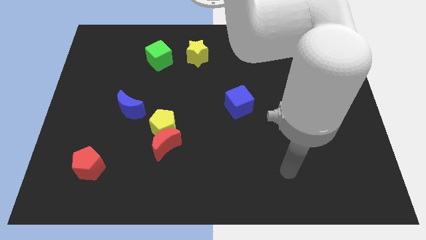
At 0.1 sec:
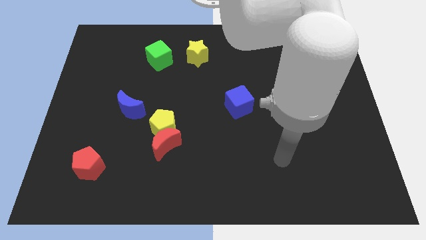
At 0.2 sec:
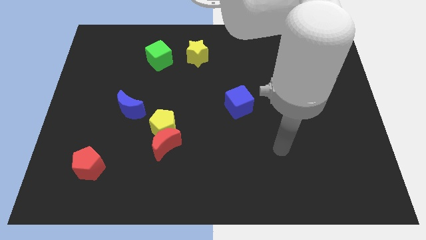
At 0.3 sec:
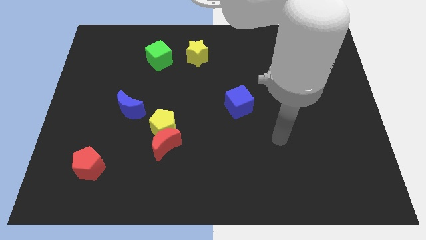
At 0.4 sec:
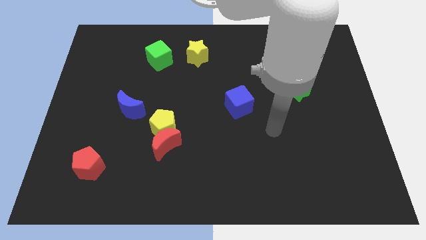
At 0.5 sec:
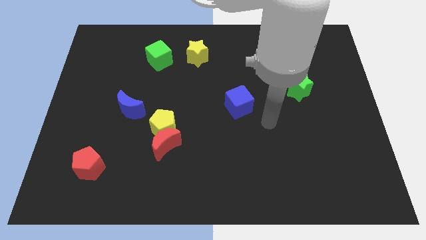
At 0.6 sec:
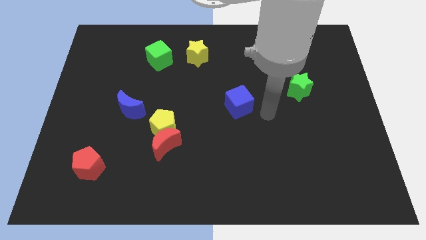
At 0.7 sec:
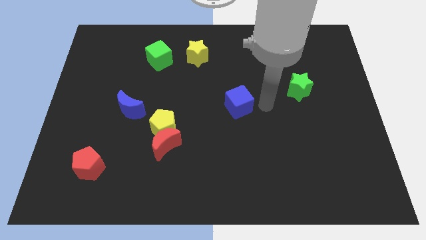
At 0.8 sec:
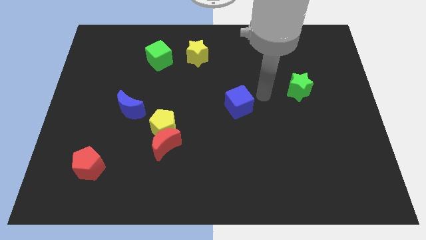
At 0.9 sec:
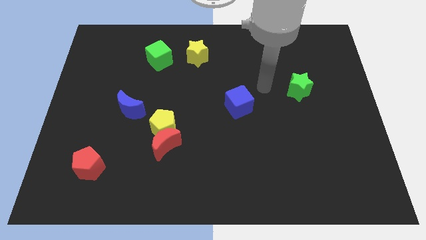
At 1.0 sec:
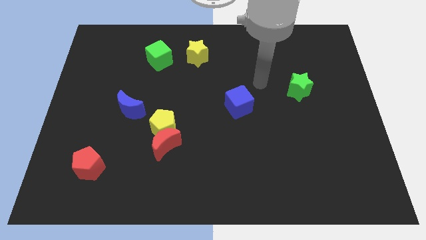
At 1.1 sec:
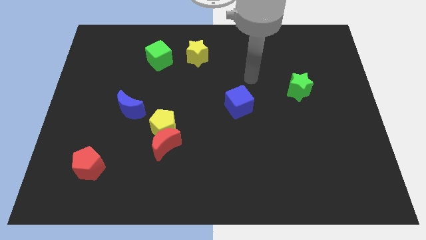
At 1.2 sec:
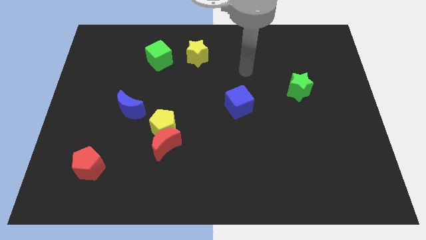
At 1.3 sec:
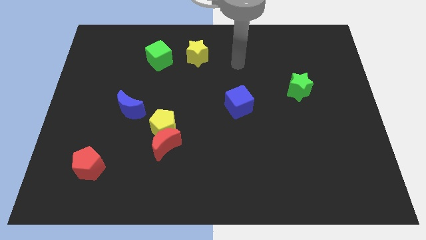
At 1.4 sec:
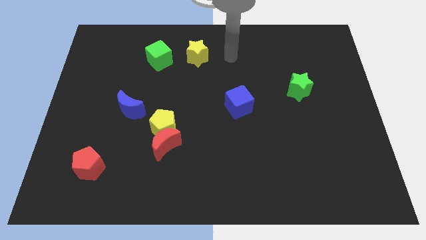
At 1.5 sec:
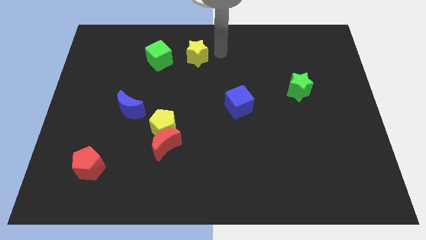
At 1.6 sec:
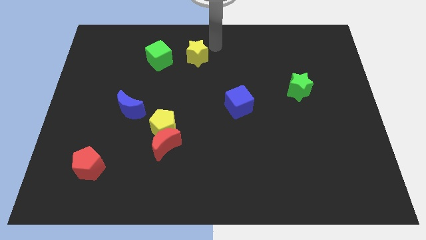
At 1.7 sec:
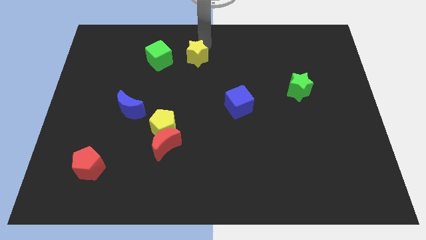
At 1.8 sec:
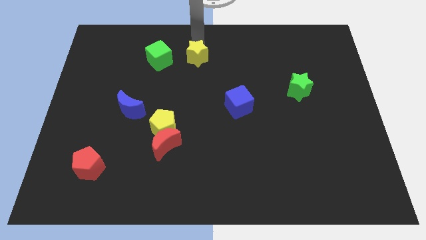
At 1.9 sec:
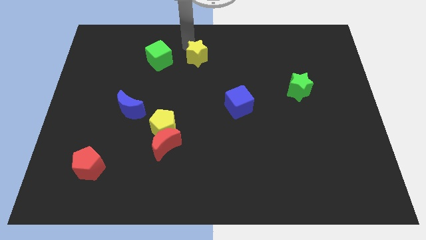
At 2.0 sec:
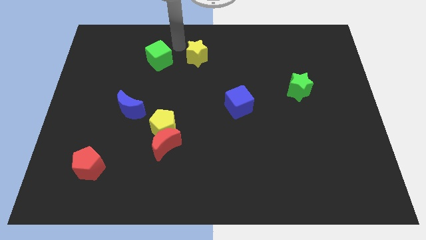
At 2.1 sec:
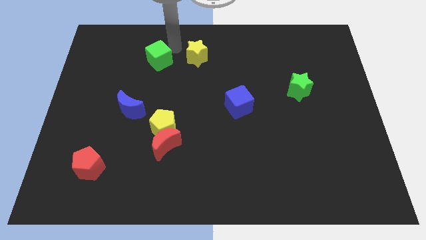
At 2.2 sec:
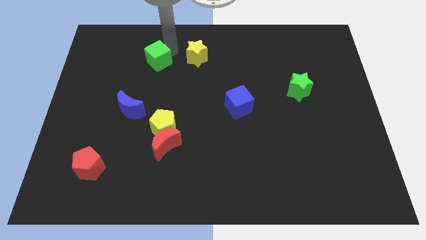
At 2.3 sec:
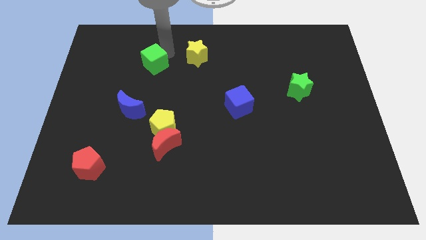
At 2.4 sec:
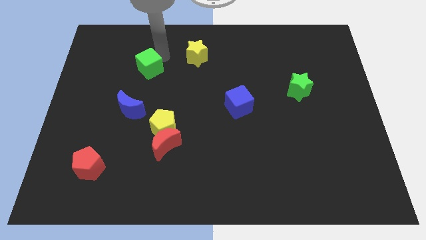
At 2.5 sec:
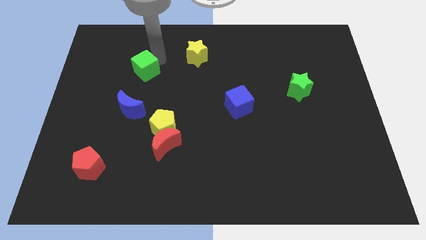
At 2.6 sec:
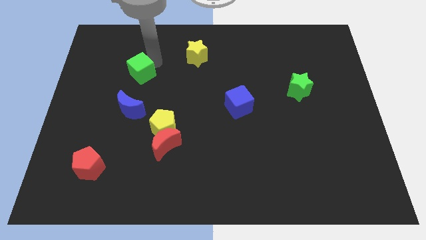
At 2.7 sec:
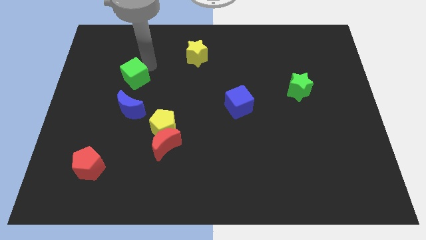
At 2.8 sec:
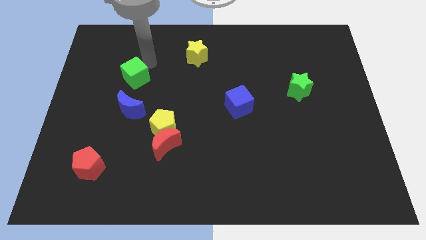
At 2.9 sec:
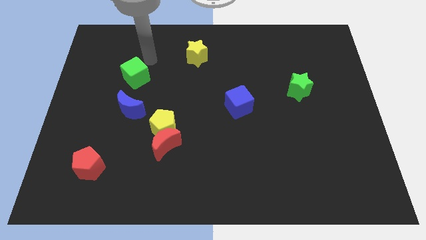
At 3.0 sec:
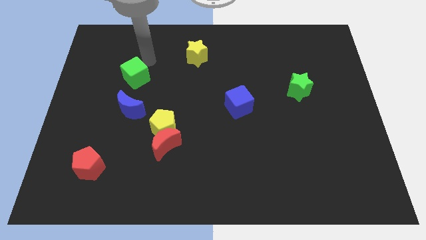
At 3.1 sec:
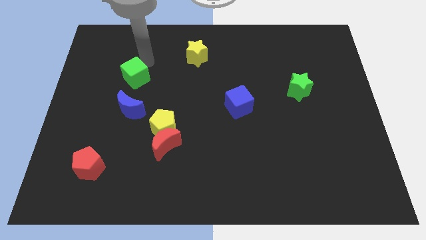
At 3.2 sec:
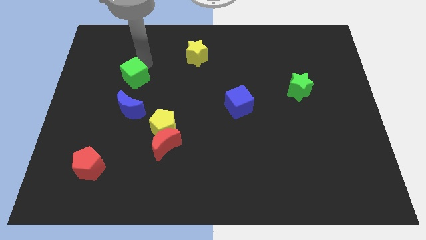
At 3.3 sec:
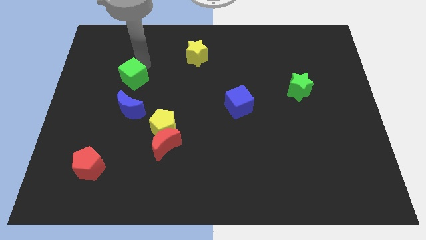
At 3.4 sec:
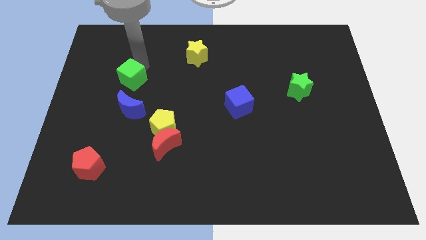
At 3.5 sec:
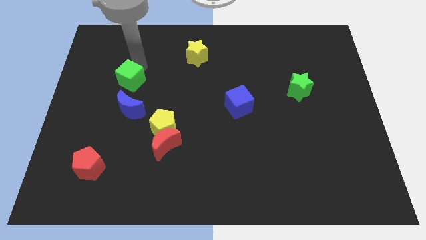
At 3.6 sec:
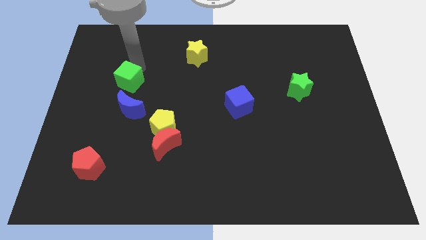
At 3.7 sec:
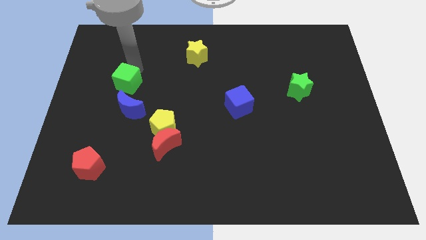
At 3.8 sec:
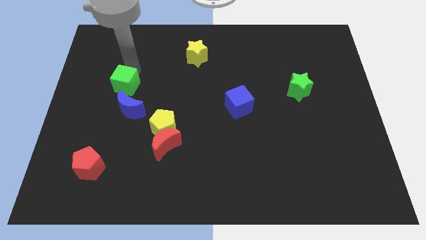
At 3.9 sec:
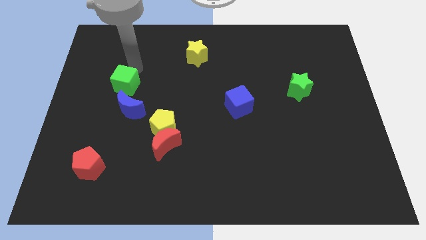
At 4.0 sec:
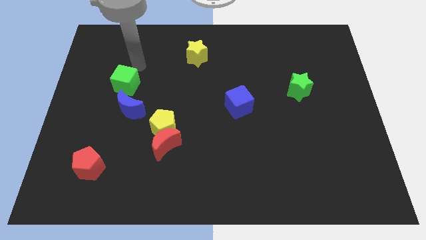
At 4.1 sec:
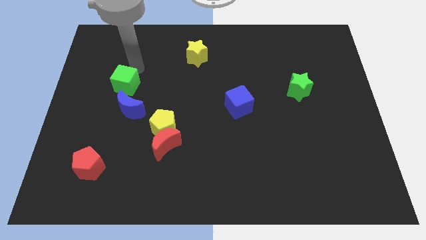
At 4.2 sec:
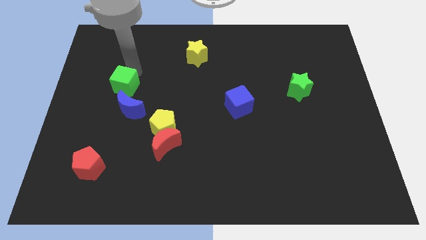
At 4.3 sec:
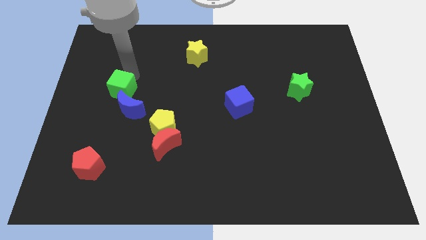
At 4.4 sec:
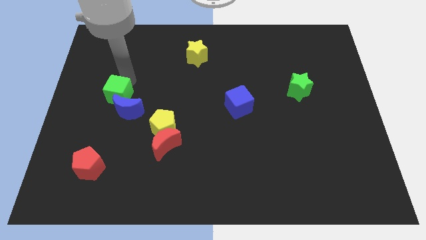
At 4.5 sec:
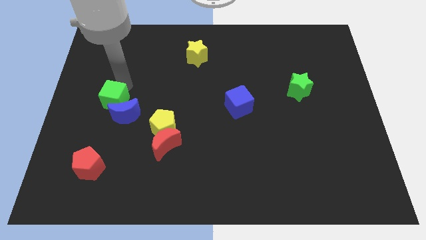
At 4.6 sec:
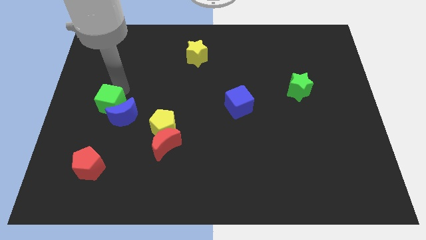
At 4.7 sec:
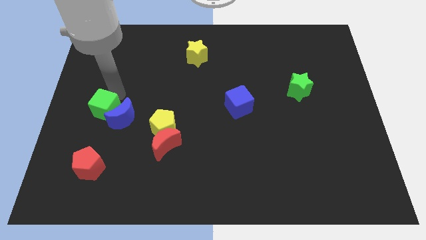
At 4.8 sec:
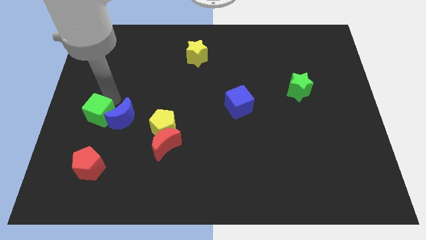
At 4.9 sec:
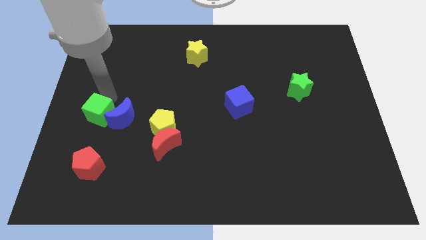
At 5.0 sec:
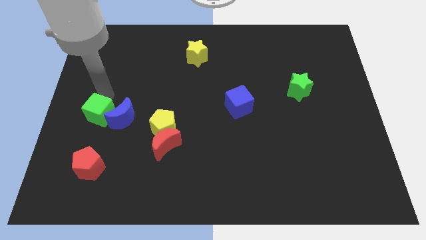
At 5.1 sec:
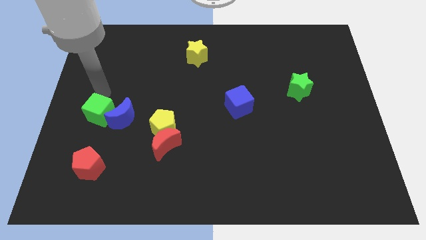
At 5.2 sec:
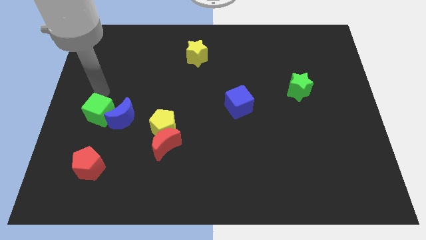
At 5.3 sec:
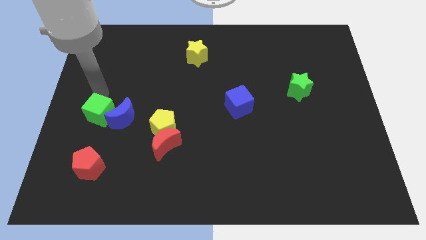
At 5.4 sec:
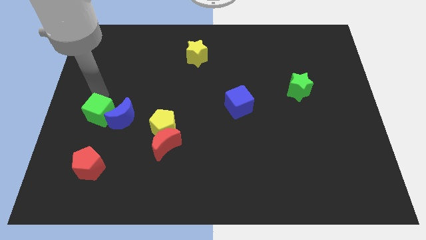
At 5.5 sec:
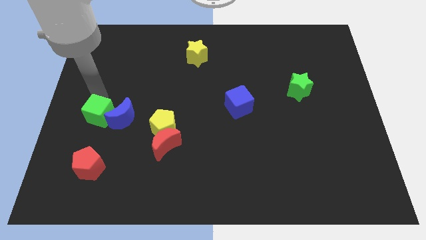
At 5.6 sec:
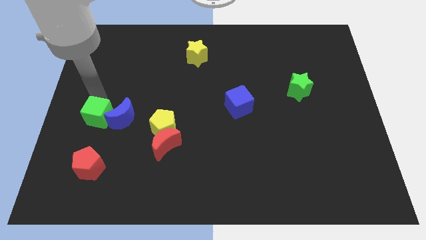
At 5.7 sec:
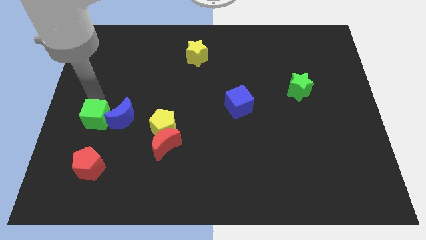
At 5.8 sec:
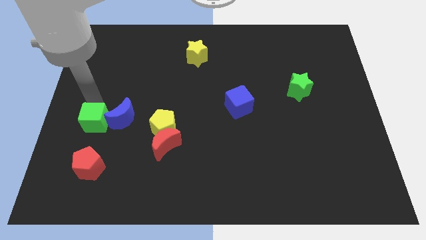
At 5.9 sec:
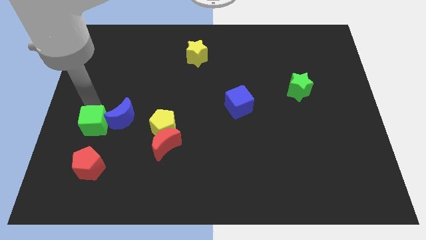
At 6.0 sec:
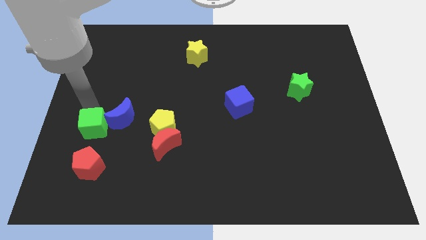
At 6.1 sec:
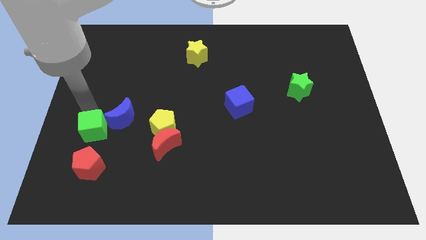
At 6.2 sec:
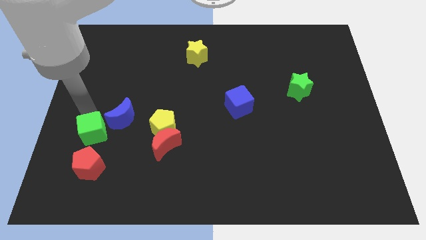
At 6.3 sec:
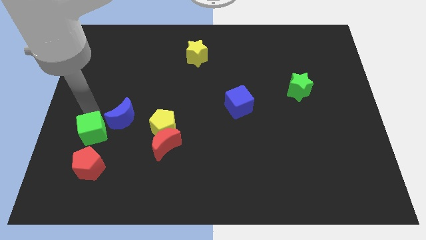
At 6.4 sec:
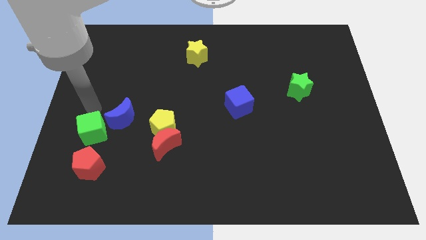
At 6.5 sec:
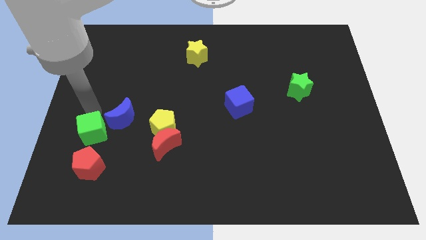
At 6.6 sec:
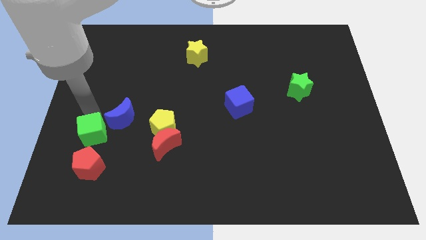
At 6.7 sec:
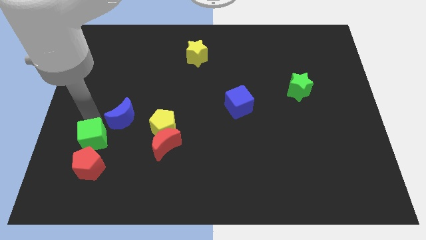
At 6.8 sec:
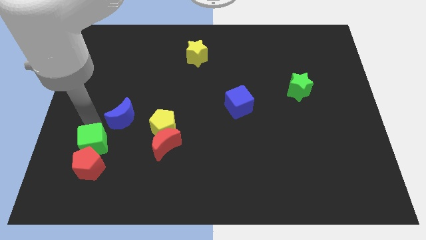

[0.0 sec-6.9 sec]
move the green cube to the red pentagon

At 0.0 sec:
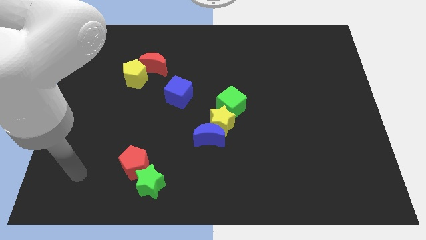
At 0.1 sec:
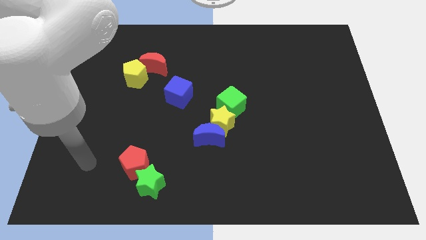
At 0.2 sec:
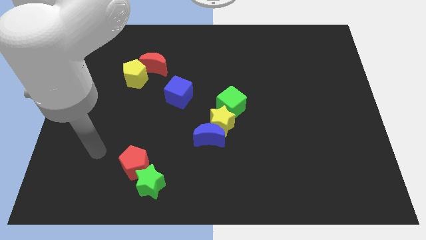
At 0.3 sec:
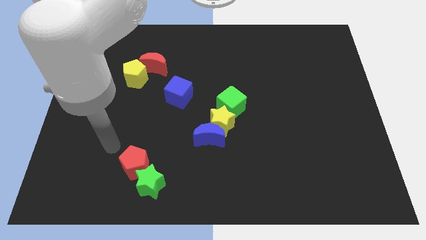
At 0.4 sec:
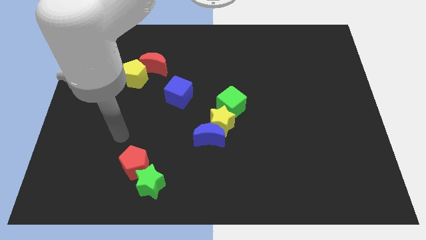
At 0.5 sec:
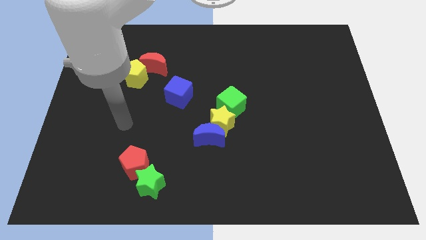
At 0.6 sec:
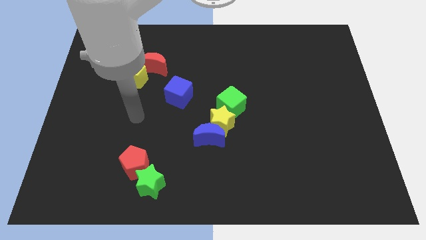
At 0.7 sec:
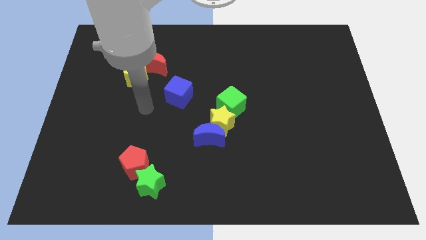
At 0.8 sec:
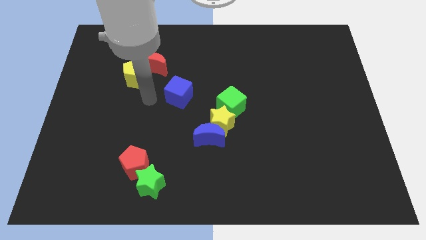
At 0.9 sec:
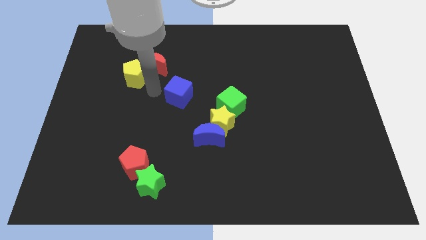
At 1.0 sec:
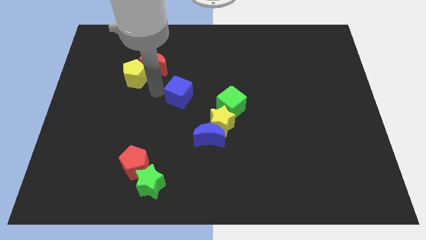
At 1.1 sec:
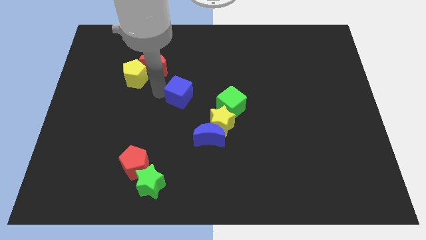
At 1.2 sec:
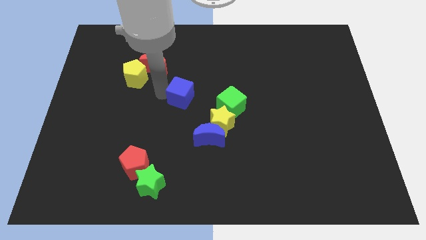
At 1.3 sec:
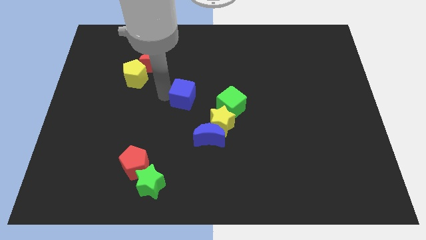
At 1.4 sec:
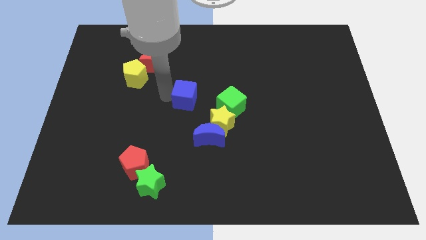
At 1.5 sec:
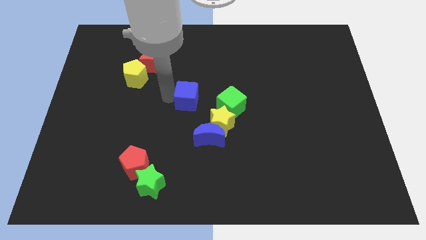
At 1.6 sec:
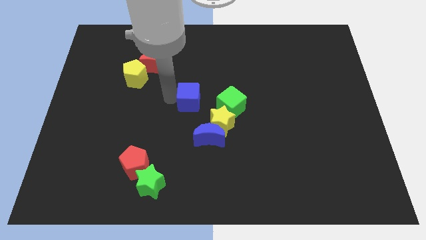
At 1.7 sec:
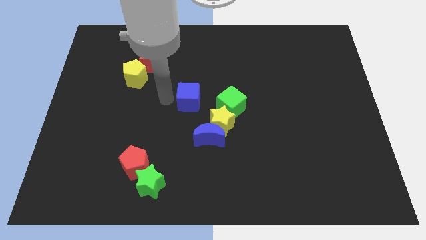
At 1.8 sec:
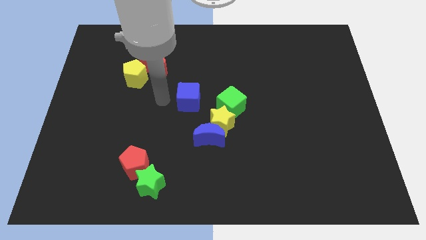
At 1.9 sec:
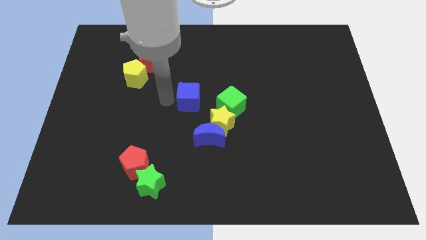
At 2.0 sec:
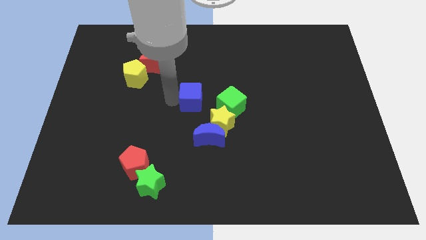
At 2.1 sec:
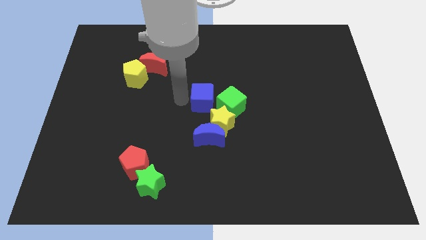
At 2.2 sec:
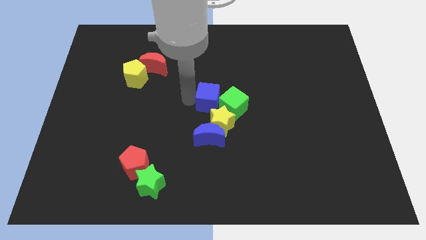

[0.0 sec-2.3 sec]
move the blue cube next to the green cube
